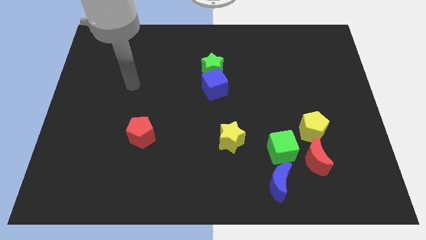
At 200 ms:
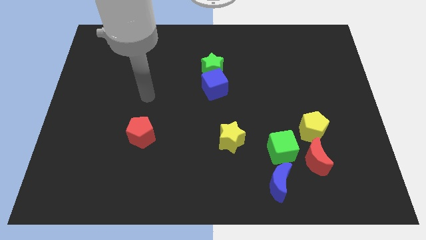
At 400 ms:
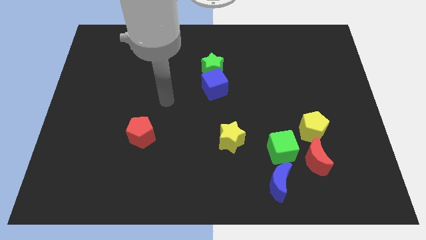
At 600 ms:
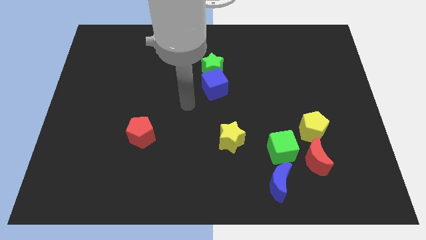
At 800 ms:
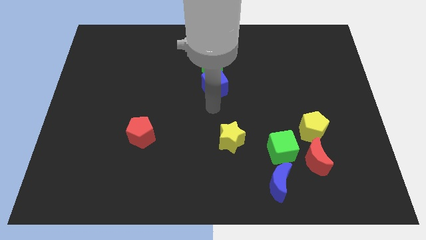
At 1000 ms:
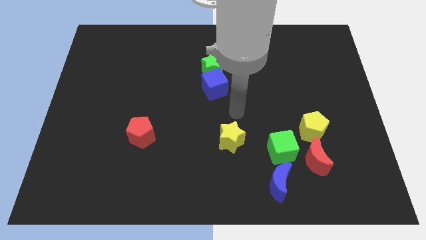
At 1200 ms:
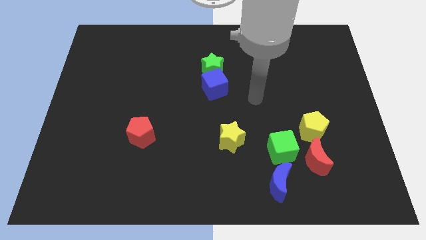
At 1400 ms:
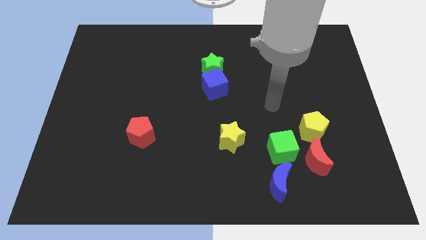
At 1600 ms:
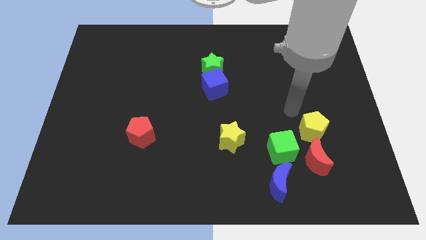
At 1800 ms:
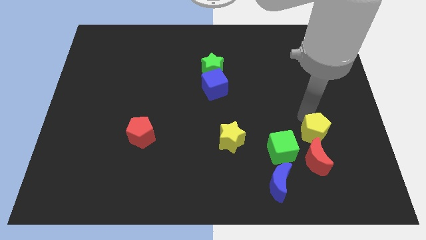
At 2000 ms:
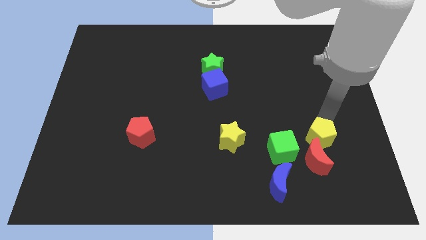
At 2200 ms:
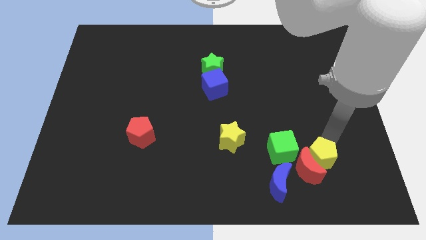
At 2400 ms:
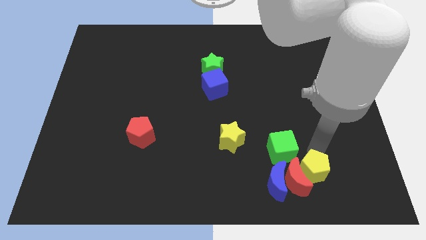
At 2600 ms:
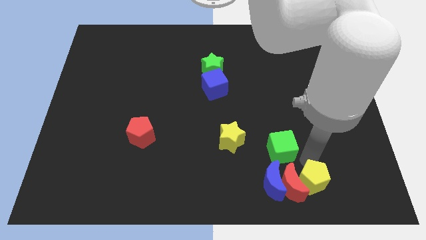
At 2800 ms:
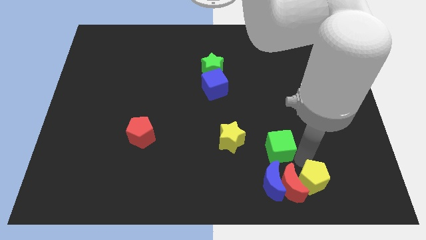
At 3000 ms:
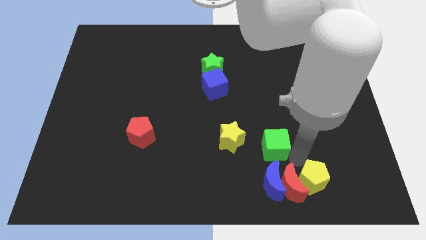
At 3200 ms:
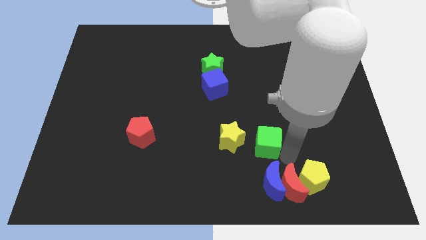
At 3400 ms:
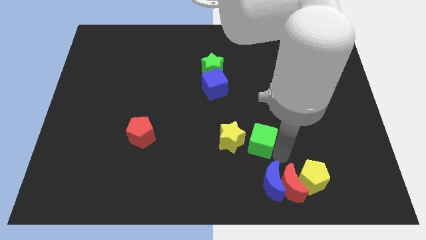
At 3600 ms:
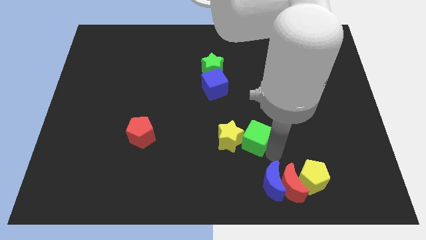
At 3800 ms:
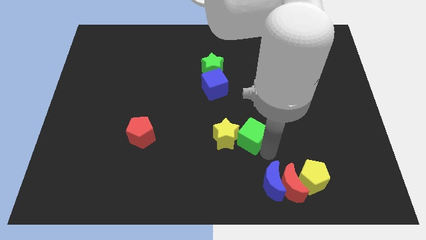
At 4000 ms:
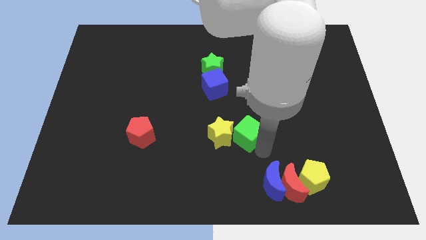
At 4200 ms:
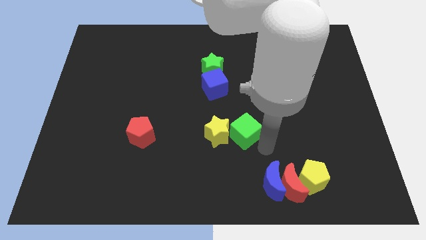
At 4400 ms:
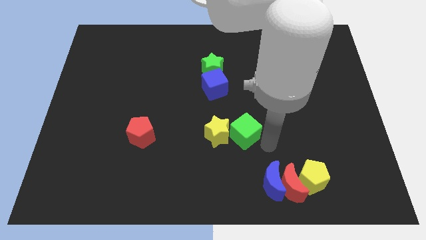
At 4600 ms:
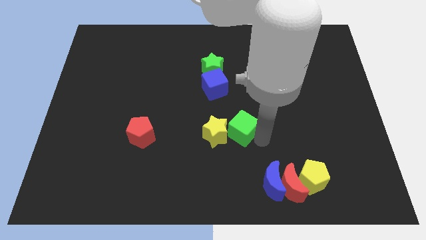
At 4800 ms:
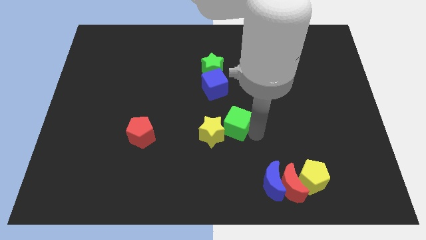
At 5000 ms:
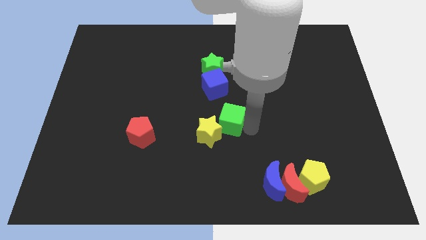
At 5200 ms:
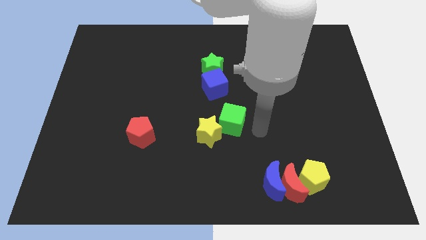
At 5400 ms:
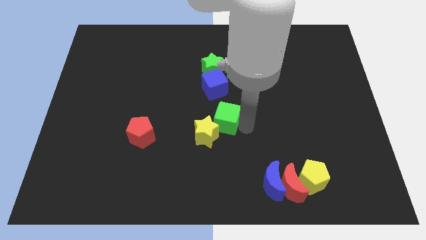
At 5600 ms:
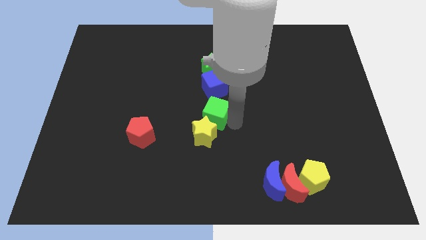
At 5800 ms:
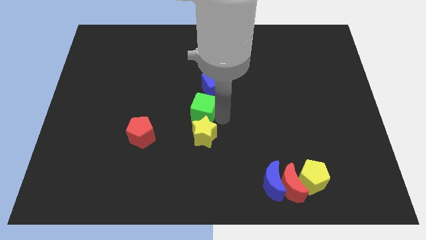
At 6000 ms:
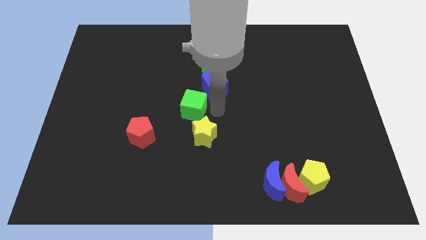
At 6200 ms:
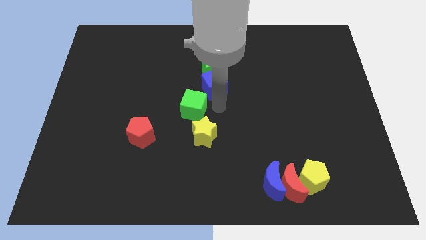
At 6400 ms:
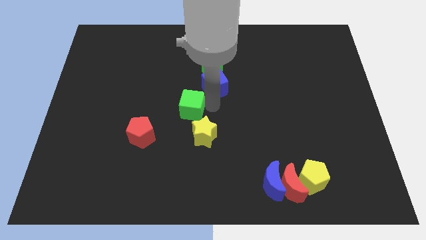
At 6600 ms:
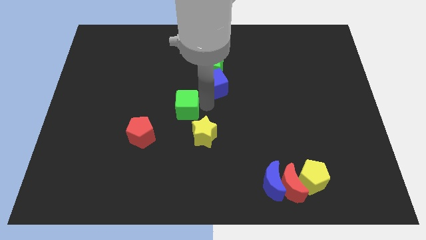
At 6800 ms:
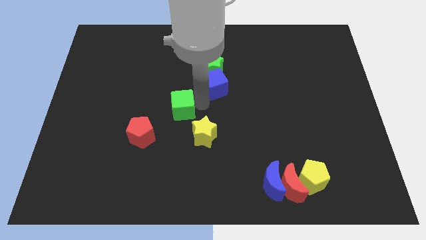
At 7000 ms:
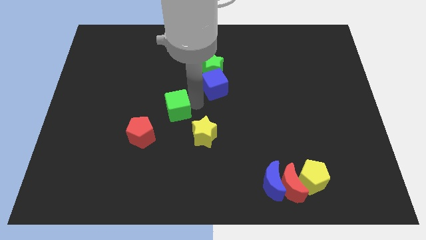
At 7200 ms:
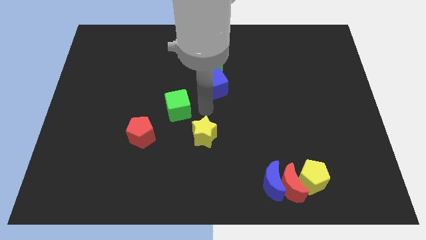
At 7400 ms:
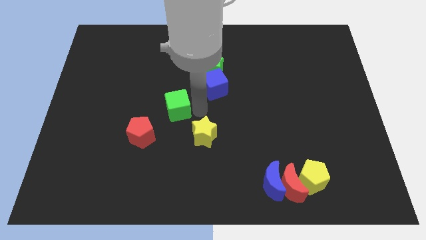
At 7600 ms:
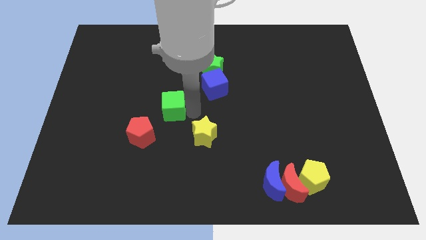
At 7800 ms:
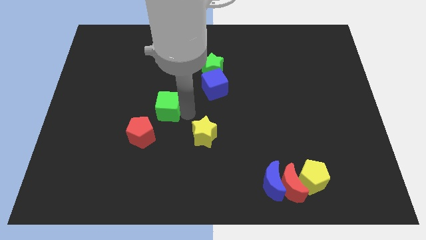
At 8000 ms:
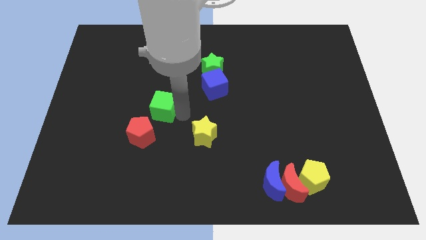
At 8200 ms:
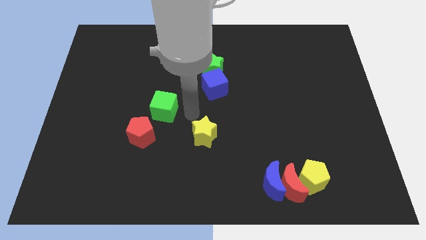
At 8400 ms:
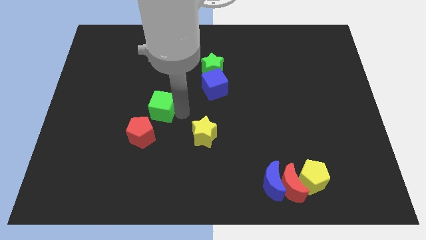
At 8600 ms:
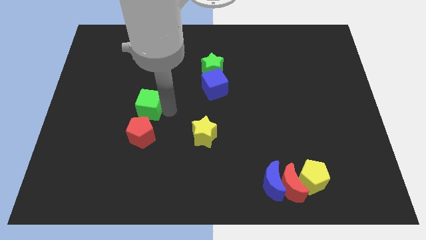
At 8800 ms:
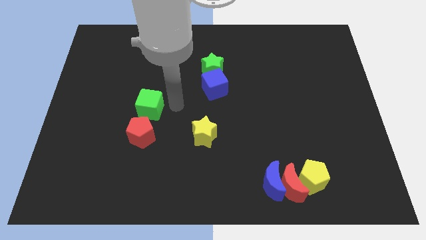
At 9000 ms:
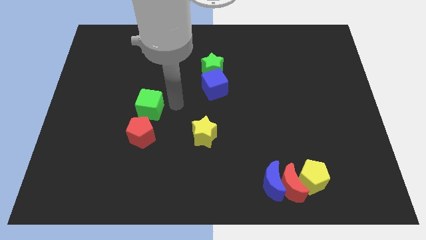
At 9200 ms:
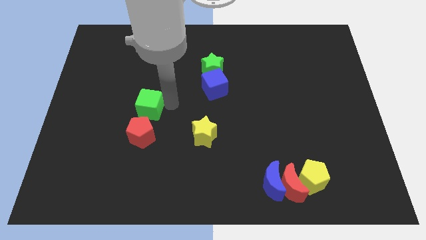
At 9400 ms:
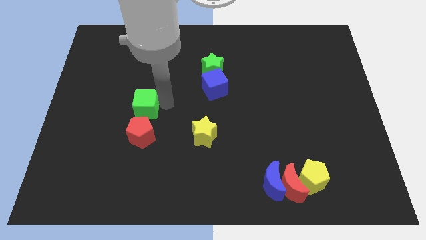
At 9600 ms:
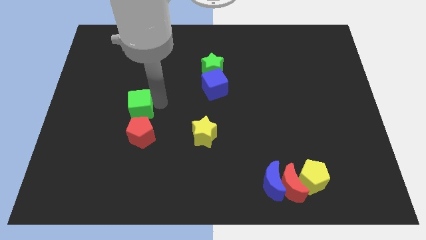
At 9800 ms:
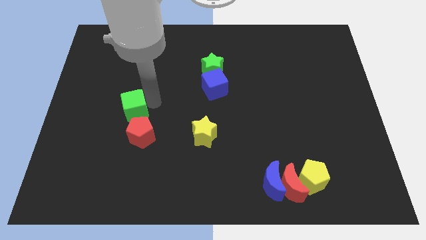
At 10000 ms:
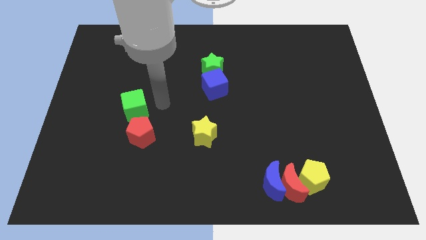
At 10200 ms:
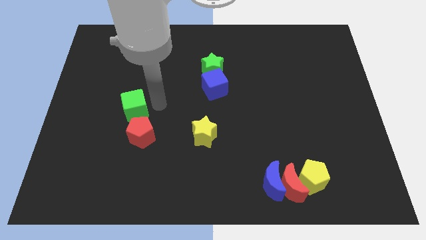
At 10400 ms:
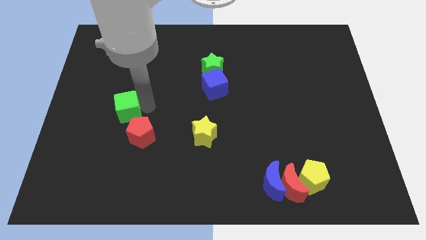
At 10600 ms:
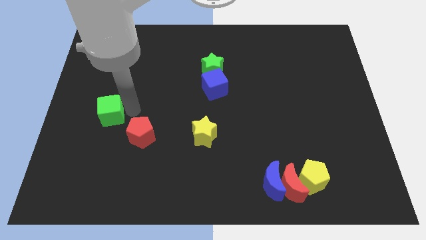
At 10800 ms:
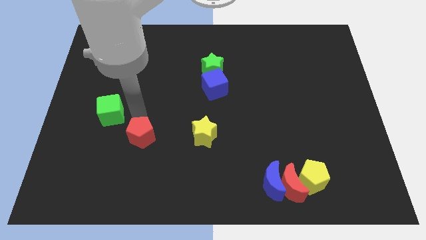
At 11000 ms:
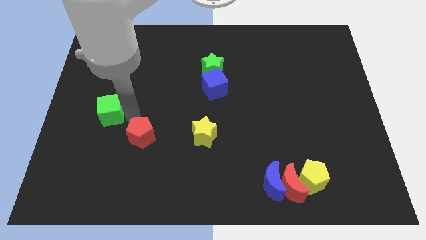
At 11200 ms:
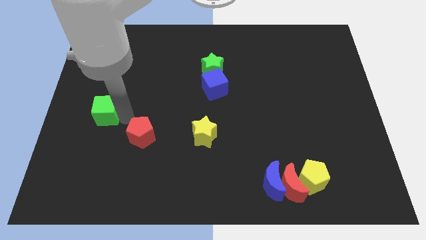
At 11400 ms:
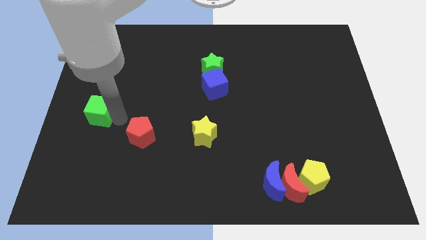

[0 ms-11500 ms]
push the green cube to the left side
